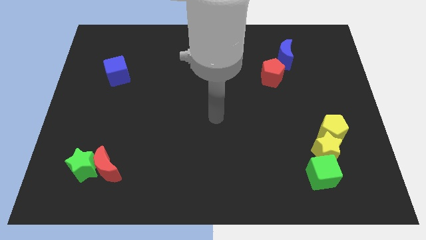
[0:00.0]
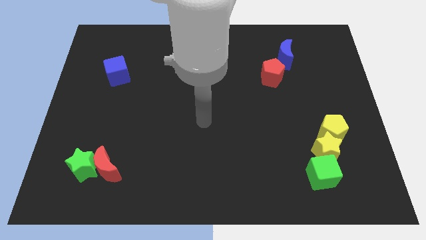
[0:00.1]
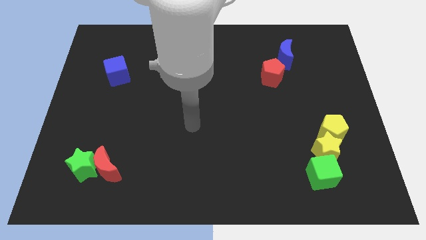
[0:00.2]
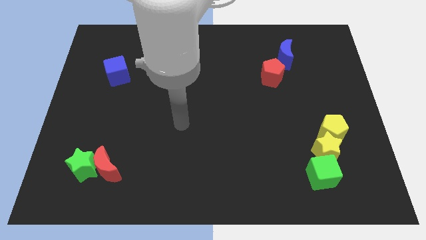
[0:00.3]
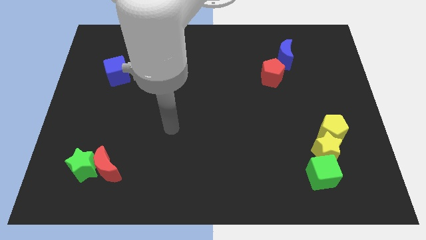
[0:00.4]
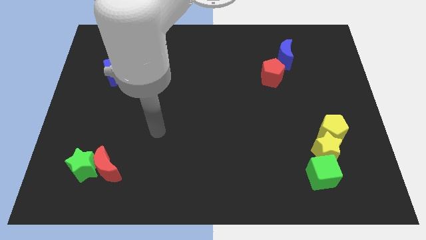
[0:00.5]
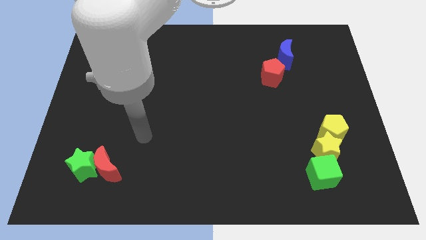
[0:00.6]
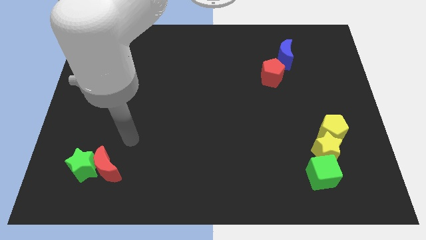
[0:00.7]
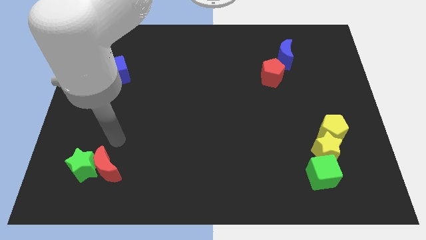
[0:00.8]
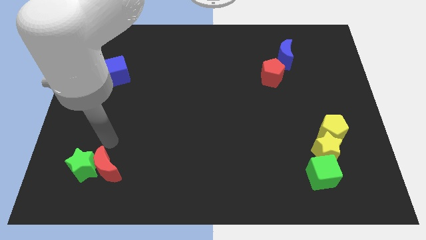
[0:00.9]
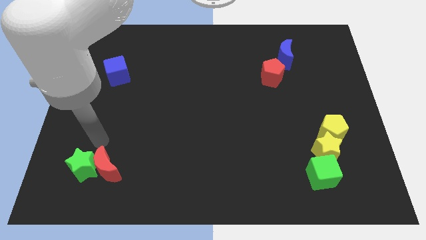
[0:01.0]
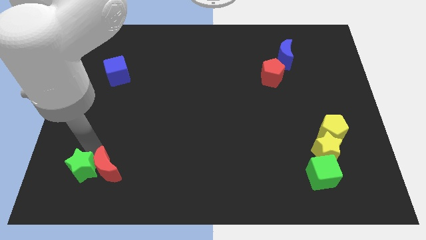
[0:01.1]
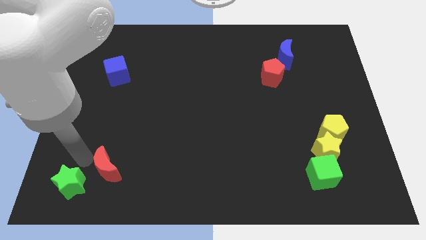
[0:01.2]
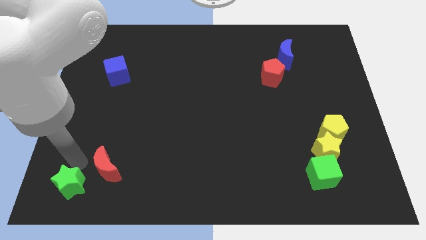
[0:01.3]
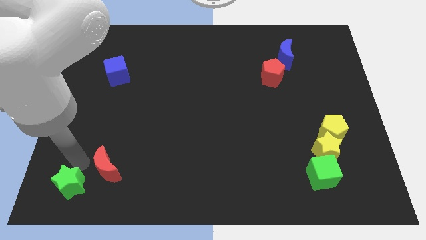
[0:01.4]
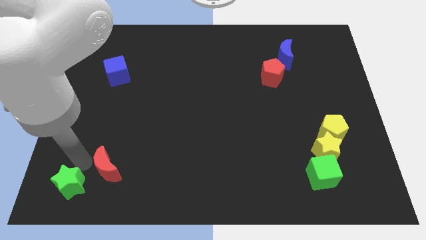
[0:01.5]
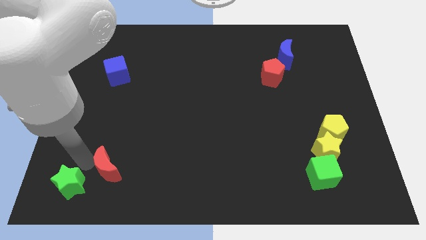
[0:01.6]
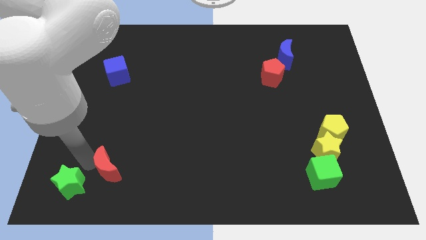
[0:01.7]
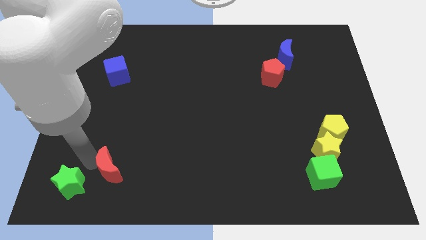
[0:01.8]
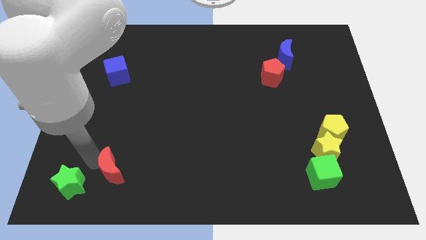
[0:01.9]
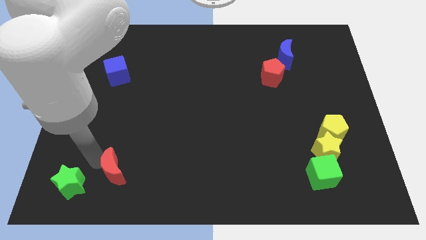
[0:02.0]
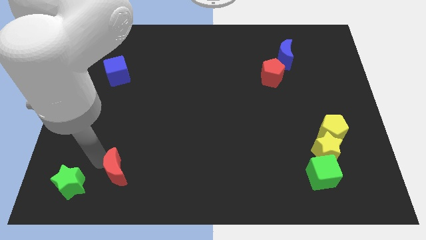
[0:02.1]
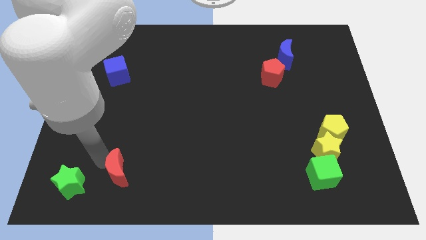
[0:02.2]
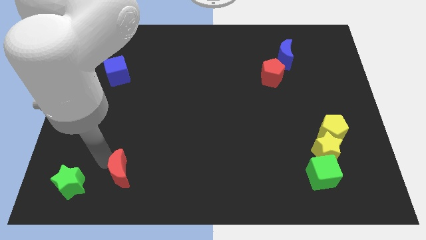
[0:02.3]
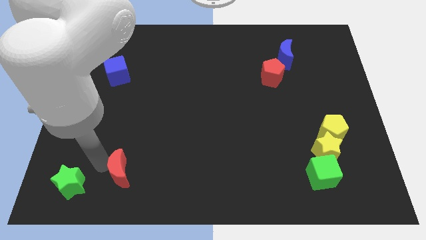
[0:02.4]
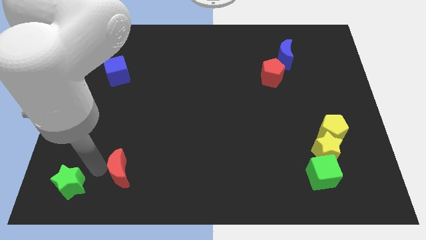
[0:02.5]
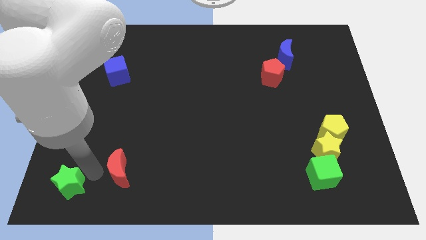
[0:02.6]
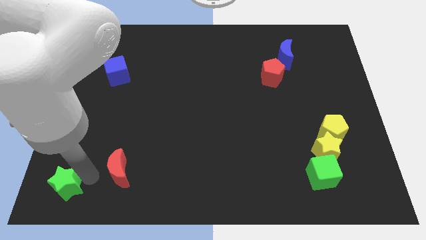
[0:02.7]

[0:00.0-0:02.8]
move the red moon away from the green star

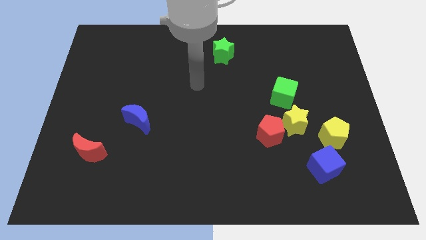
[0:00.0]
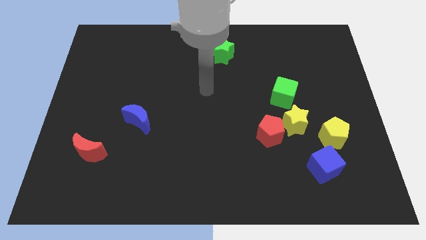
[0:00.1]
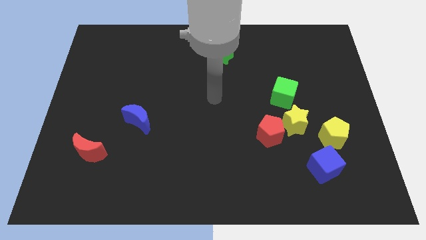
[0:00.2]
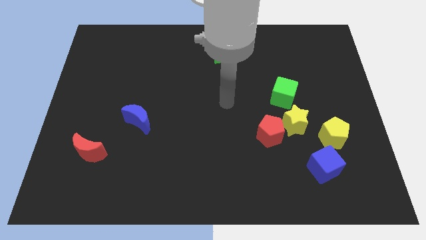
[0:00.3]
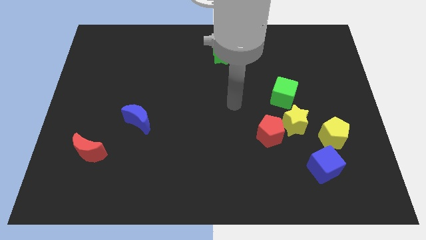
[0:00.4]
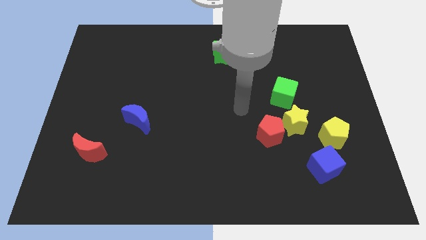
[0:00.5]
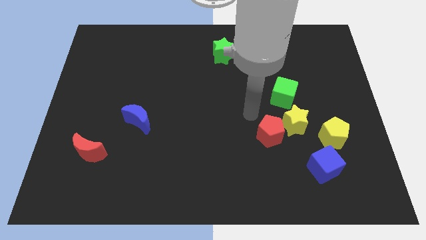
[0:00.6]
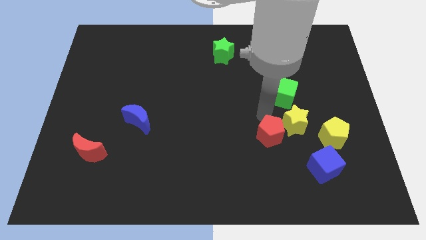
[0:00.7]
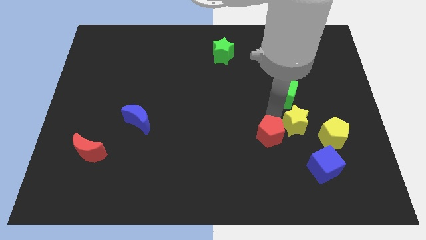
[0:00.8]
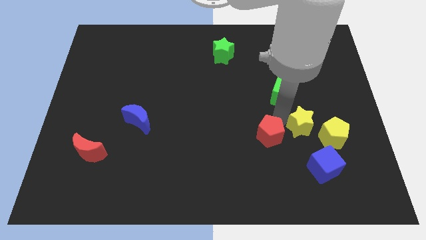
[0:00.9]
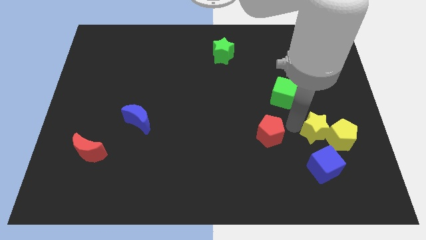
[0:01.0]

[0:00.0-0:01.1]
pull the red pentagon apart from the yellow star

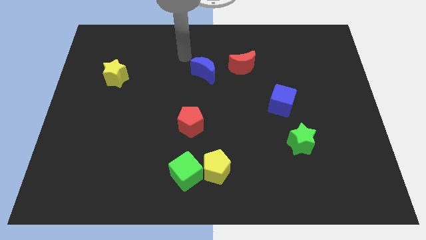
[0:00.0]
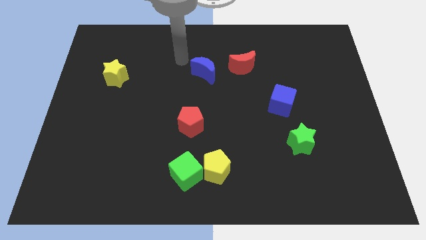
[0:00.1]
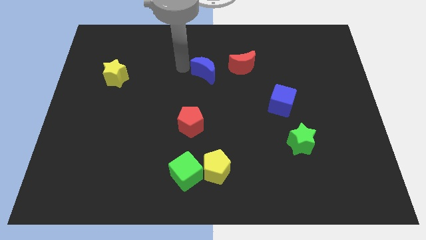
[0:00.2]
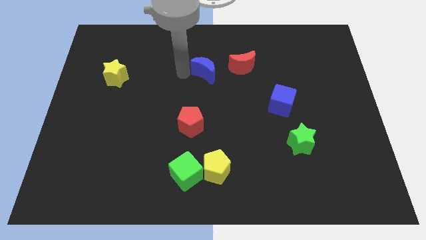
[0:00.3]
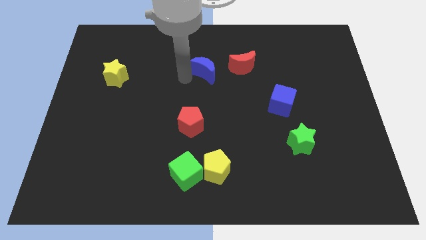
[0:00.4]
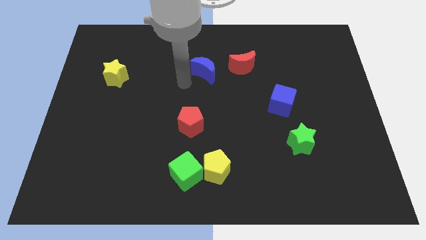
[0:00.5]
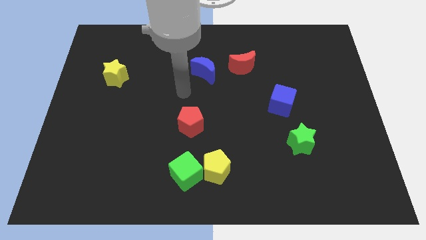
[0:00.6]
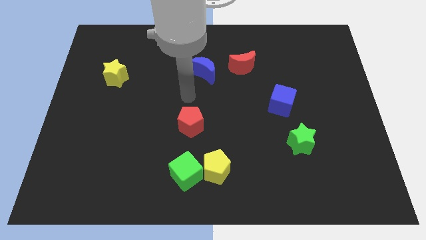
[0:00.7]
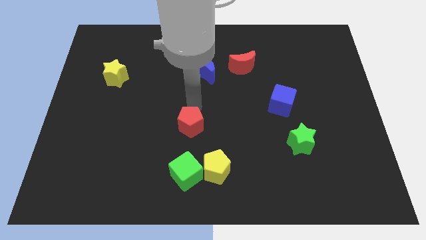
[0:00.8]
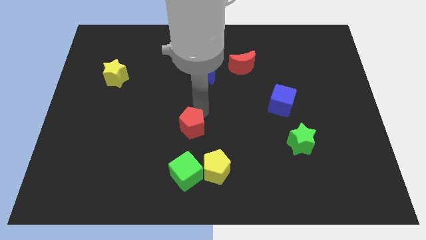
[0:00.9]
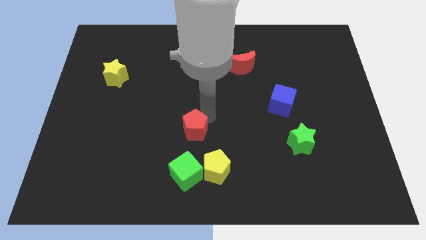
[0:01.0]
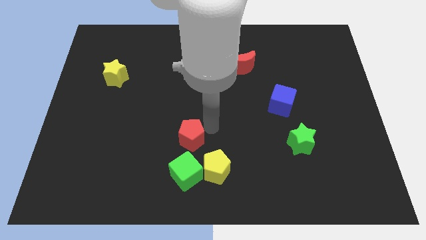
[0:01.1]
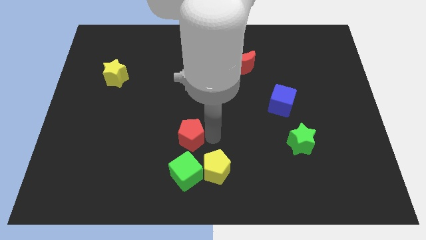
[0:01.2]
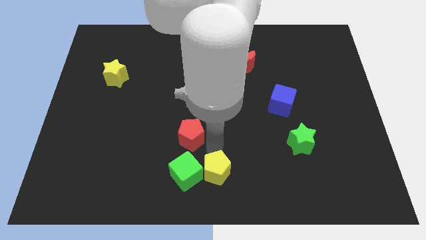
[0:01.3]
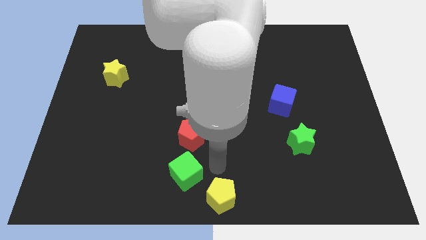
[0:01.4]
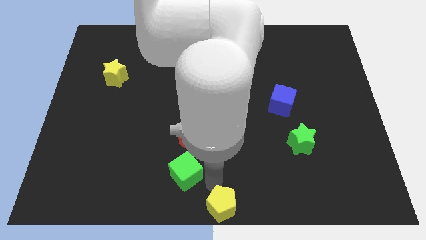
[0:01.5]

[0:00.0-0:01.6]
pull the green cube apart from the yellow pentagon

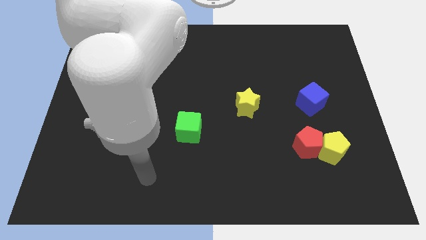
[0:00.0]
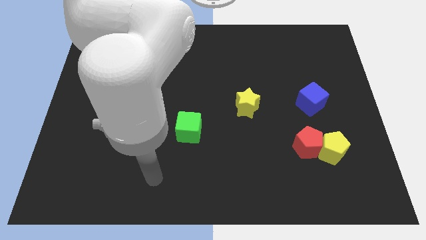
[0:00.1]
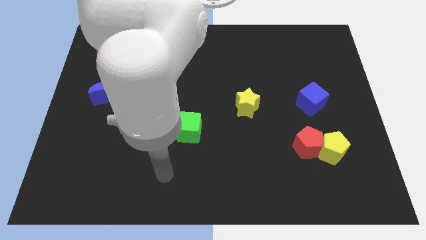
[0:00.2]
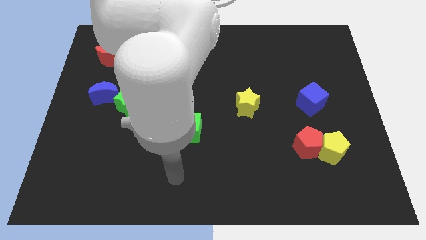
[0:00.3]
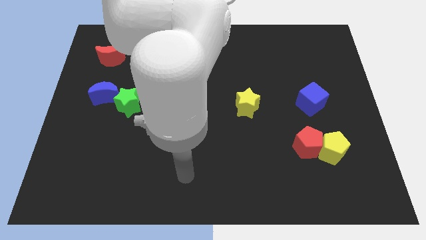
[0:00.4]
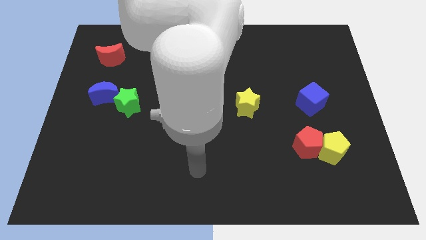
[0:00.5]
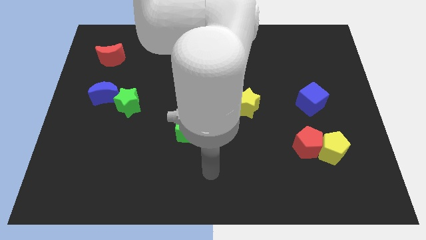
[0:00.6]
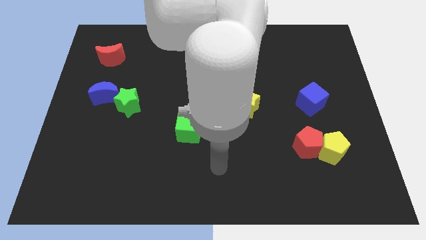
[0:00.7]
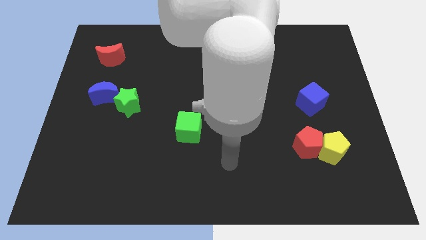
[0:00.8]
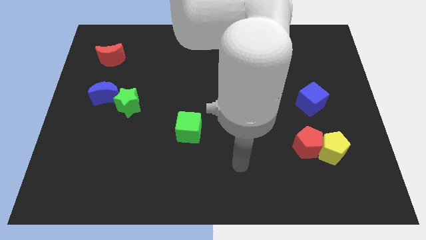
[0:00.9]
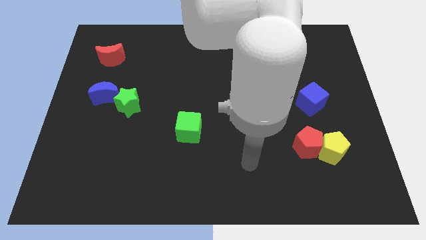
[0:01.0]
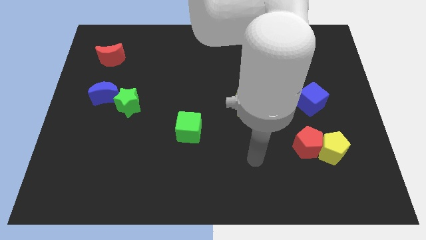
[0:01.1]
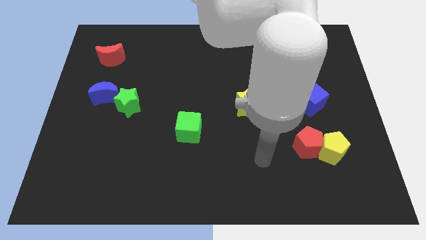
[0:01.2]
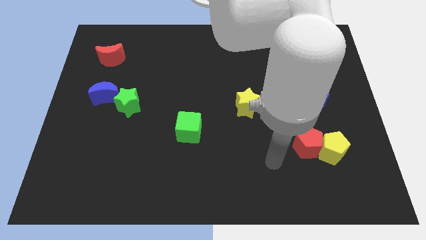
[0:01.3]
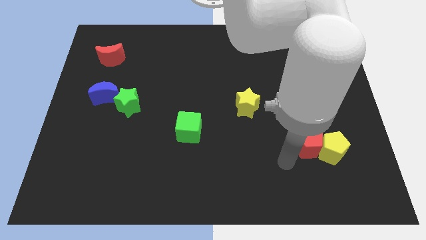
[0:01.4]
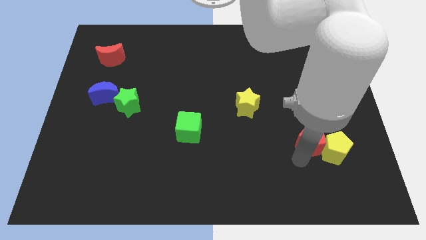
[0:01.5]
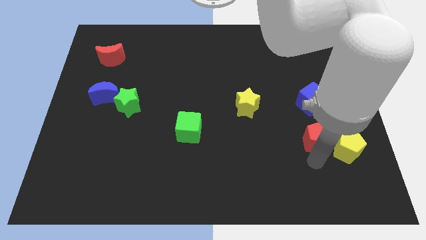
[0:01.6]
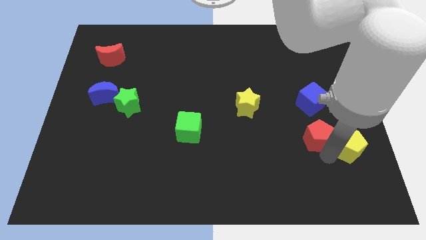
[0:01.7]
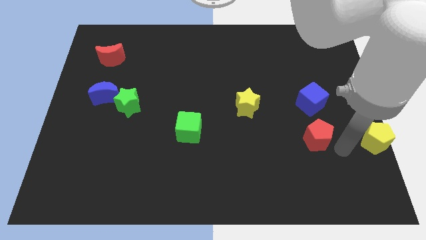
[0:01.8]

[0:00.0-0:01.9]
pull the red pentagon apart from the yellow pentagon

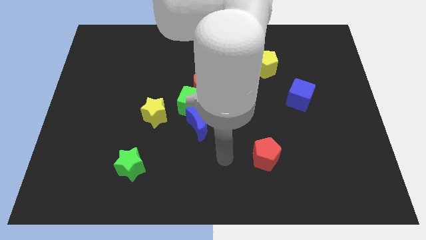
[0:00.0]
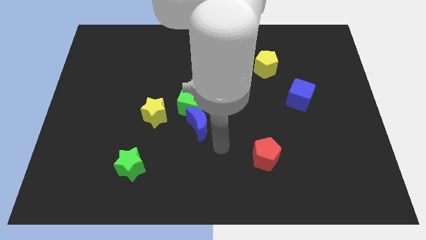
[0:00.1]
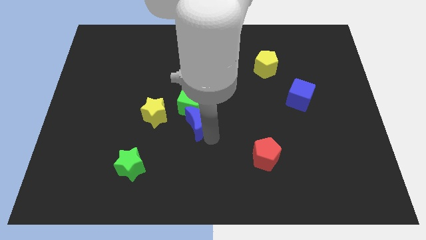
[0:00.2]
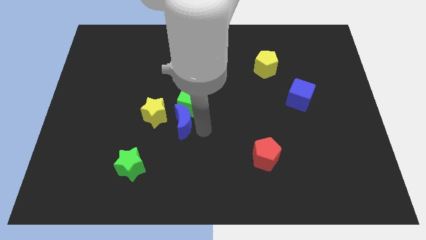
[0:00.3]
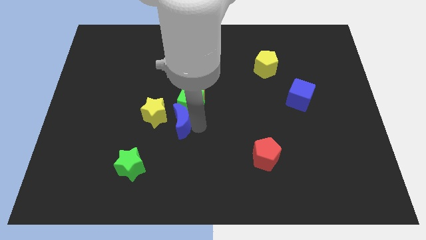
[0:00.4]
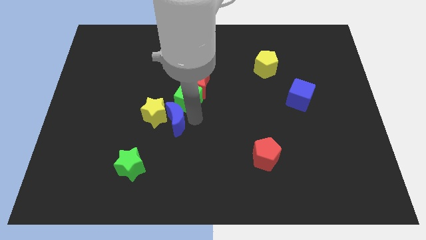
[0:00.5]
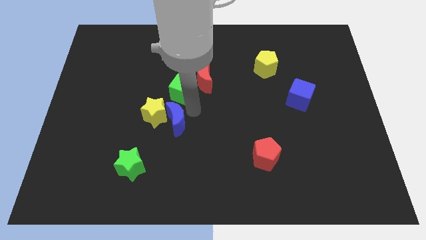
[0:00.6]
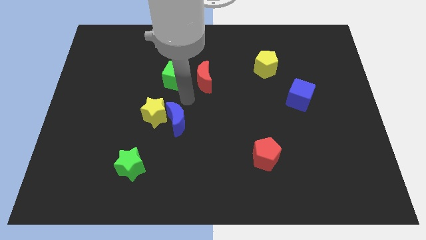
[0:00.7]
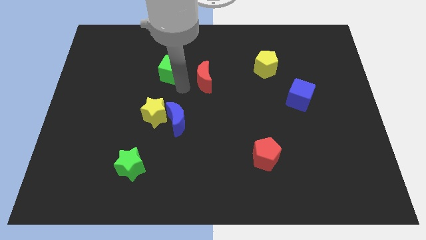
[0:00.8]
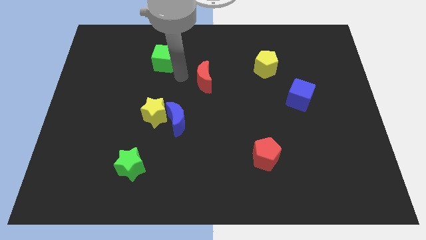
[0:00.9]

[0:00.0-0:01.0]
separate the red moon from the green cube

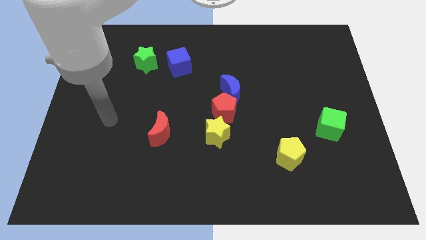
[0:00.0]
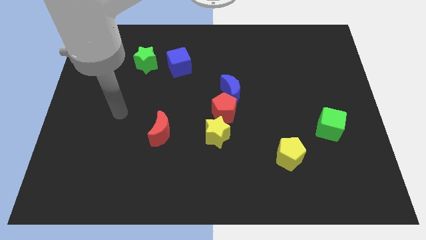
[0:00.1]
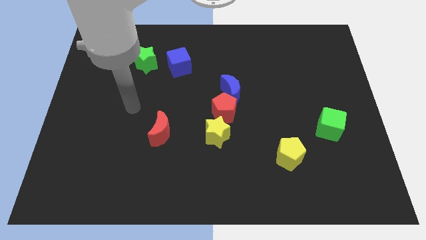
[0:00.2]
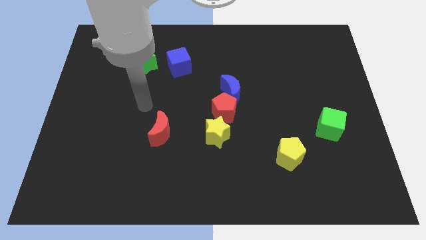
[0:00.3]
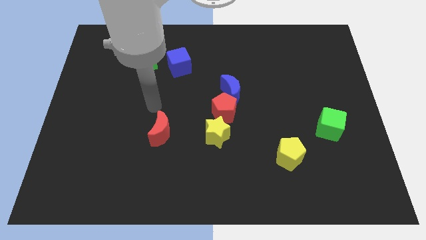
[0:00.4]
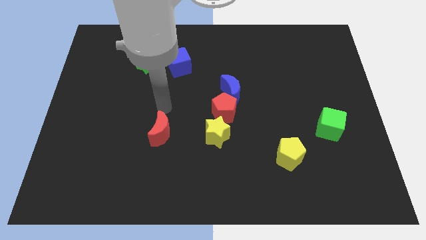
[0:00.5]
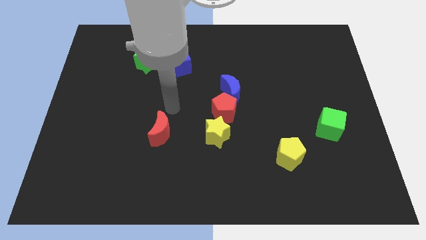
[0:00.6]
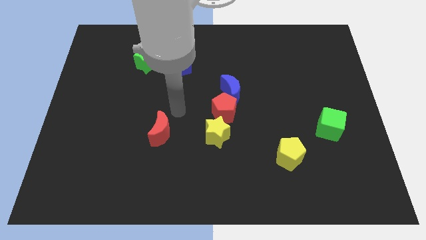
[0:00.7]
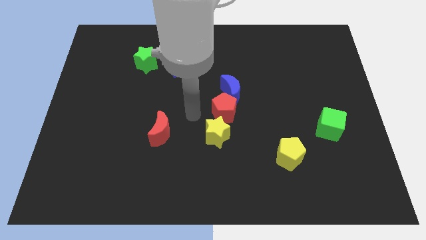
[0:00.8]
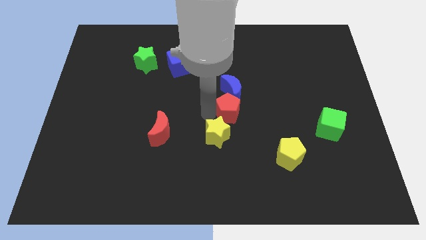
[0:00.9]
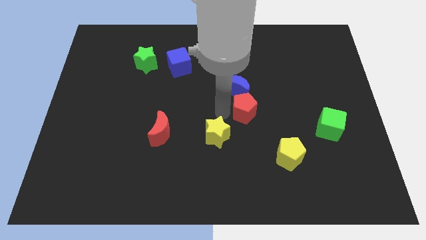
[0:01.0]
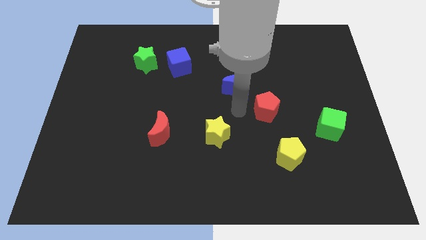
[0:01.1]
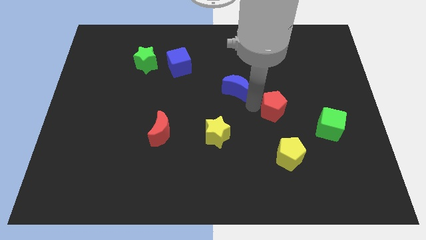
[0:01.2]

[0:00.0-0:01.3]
pull the blue moon apart from the red pentagon
